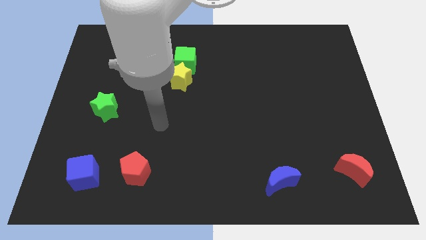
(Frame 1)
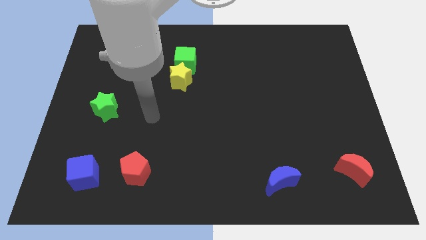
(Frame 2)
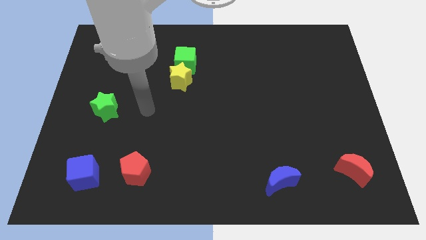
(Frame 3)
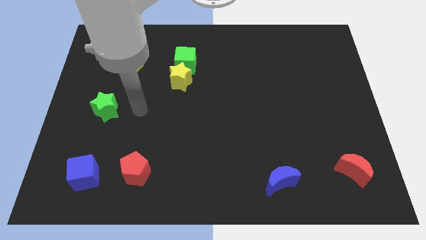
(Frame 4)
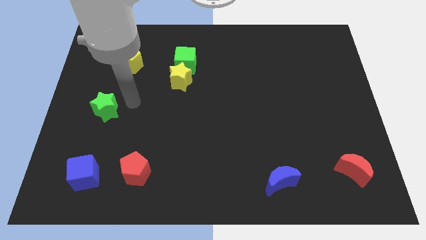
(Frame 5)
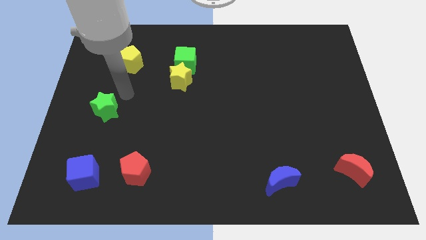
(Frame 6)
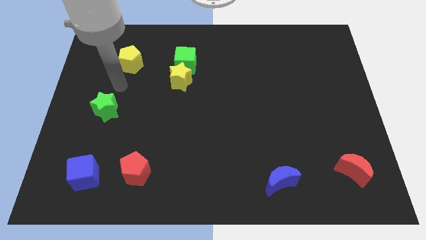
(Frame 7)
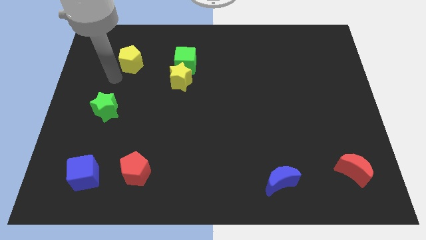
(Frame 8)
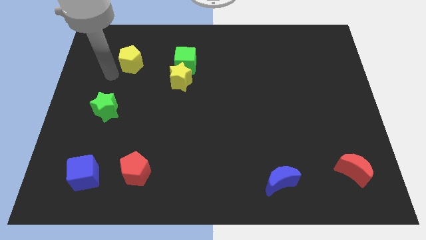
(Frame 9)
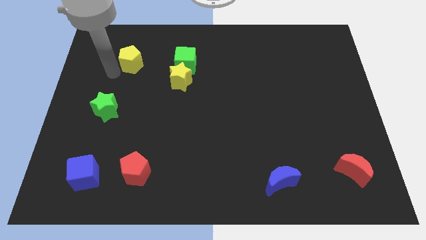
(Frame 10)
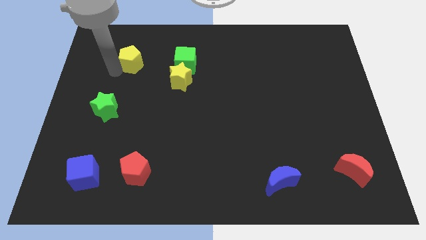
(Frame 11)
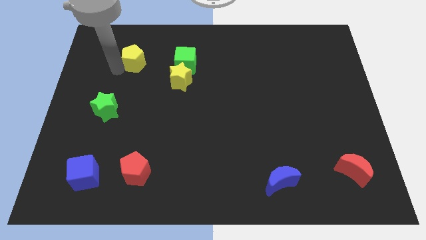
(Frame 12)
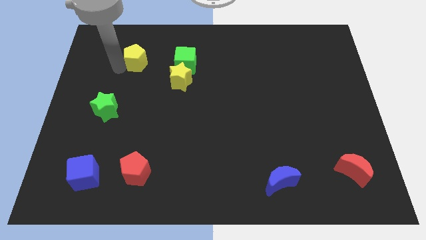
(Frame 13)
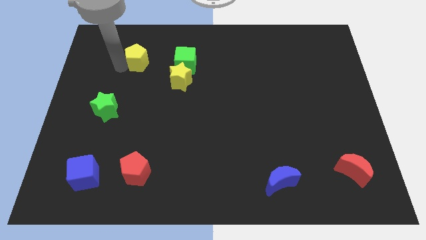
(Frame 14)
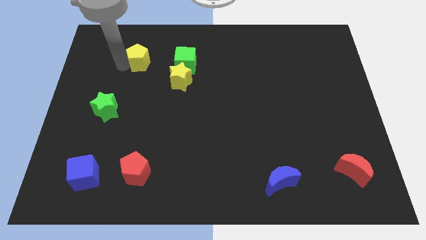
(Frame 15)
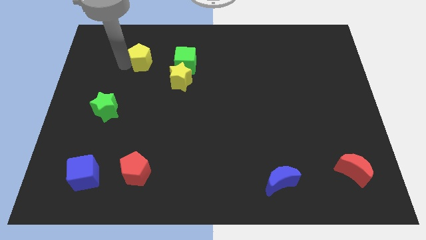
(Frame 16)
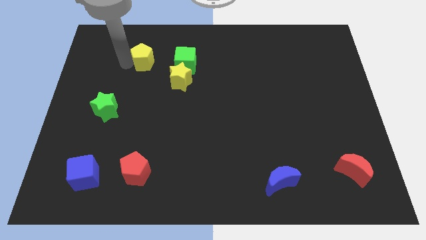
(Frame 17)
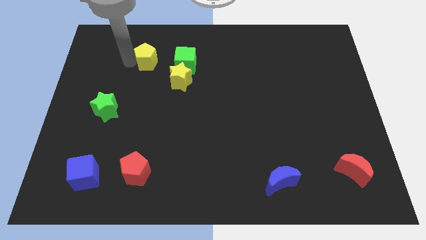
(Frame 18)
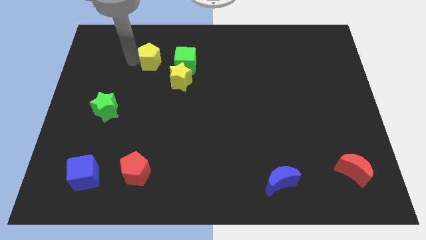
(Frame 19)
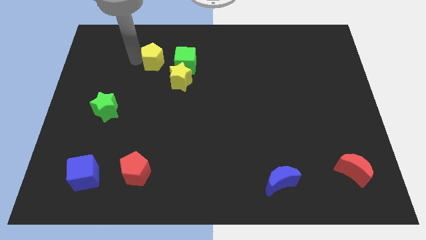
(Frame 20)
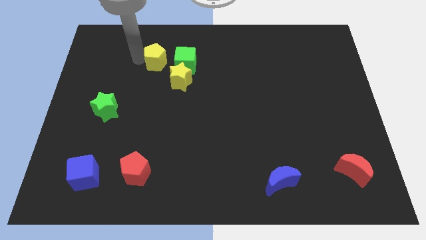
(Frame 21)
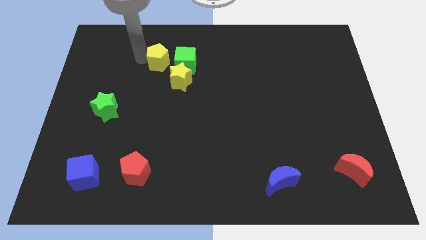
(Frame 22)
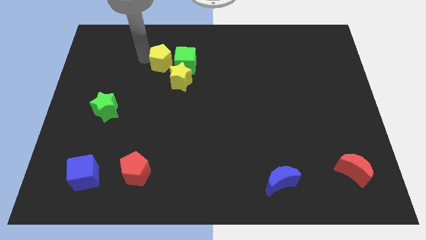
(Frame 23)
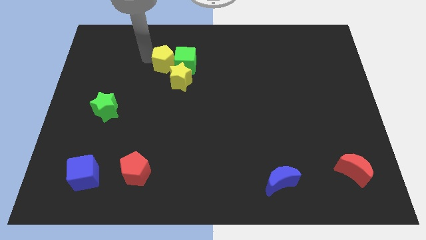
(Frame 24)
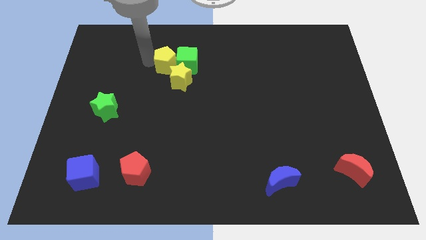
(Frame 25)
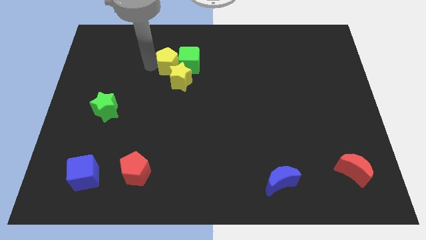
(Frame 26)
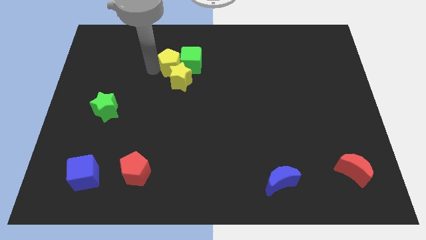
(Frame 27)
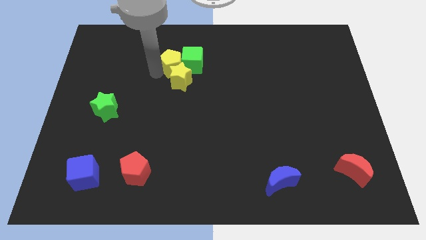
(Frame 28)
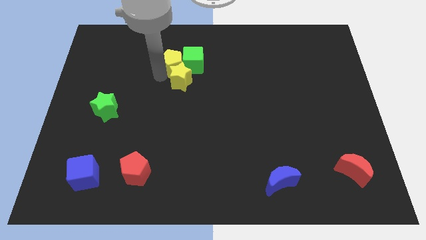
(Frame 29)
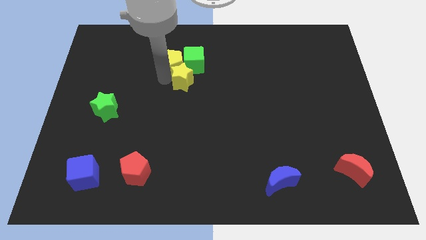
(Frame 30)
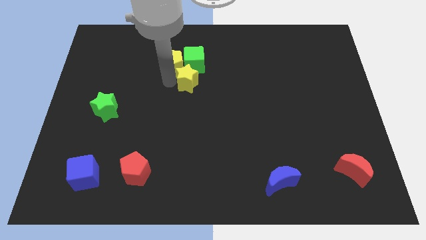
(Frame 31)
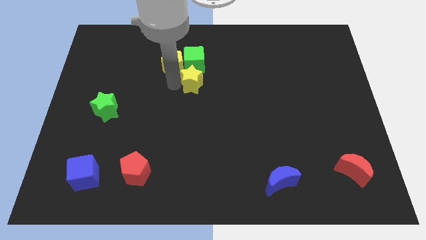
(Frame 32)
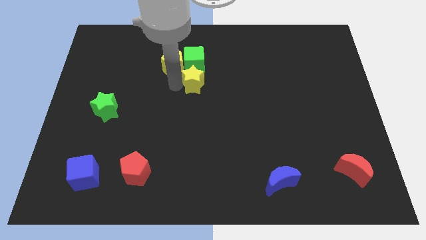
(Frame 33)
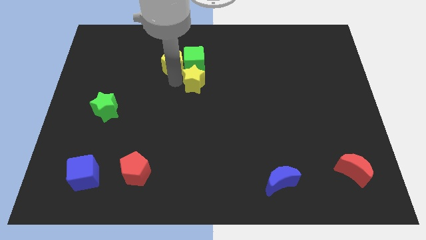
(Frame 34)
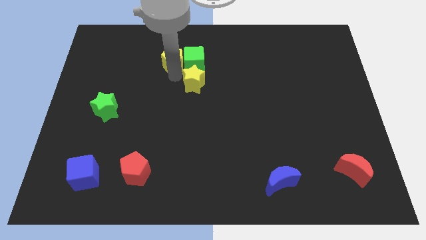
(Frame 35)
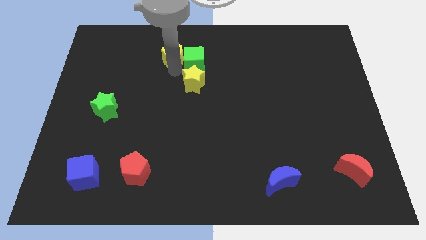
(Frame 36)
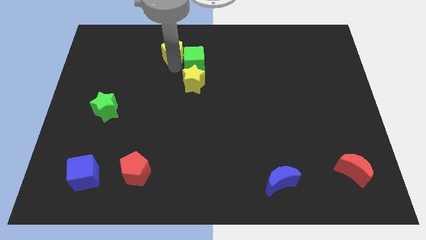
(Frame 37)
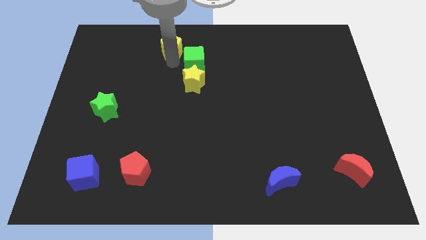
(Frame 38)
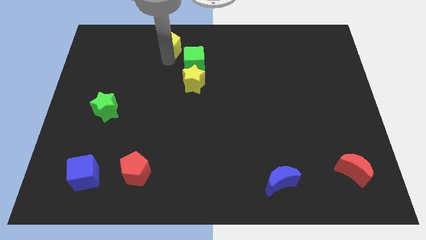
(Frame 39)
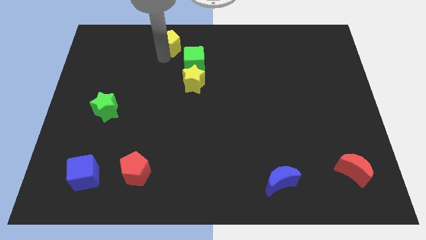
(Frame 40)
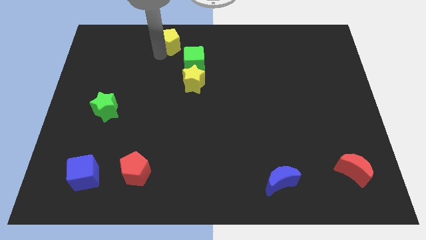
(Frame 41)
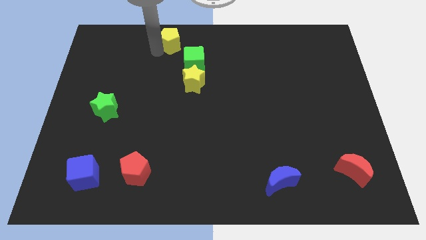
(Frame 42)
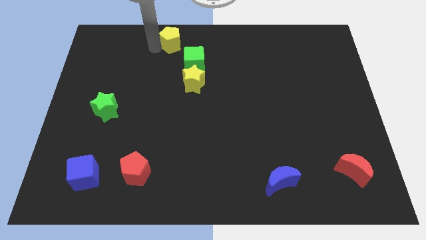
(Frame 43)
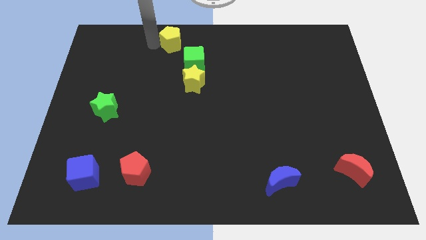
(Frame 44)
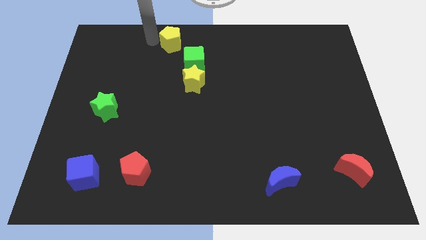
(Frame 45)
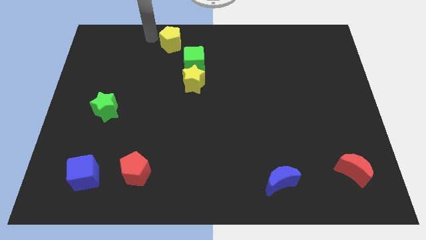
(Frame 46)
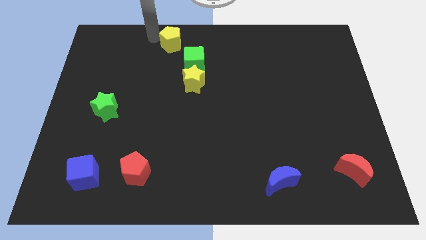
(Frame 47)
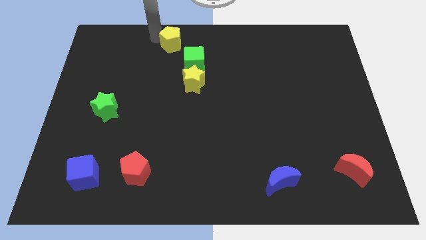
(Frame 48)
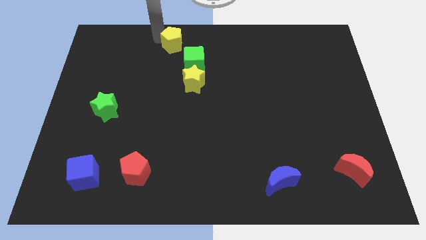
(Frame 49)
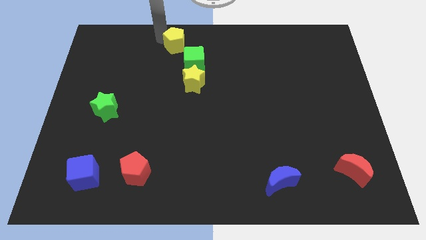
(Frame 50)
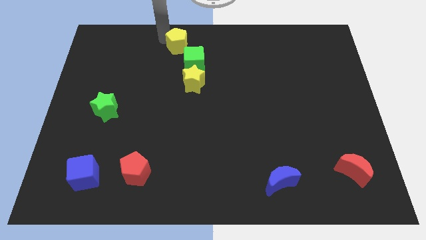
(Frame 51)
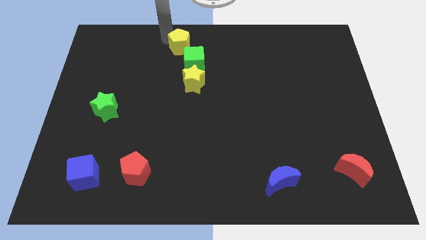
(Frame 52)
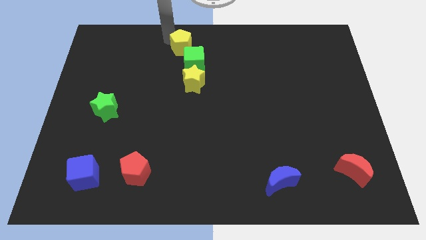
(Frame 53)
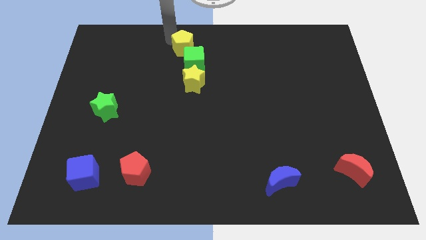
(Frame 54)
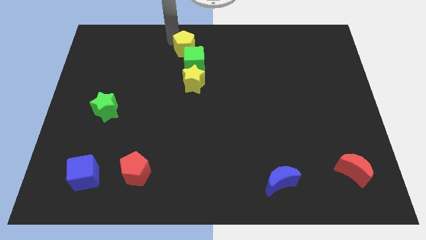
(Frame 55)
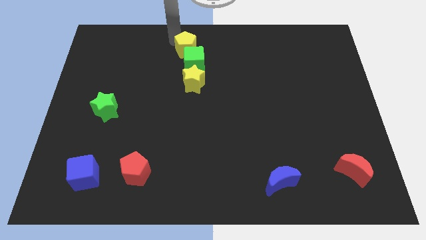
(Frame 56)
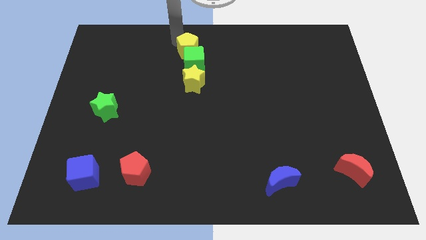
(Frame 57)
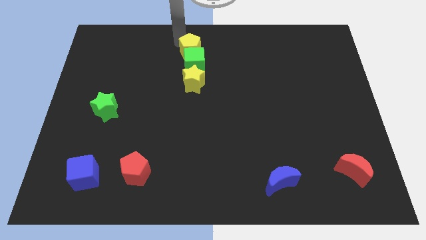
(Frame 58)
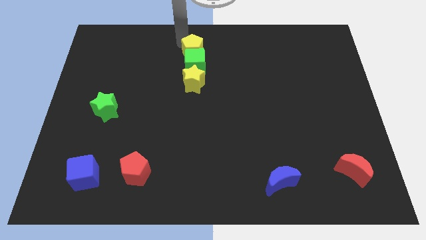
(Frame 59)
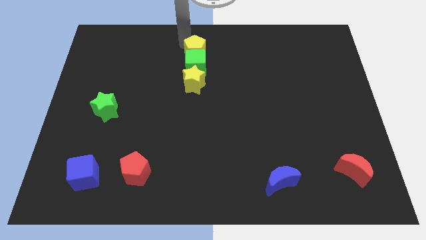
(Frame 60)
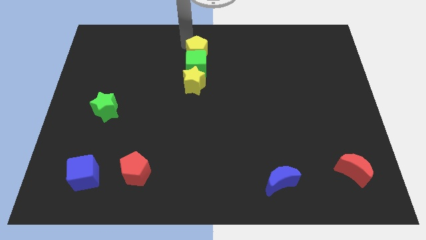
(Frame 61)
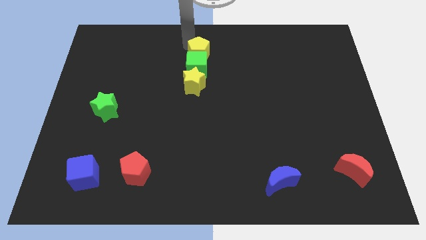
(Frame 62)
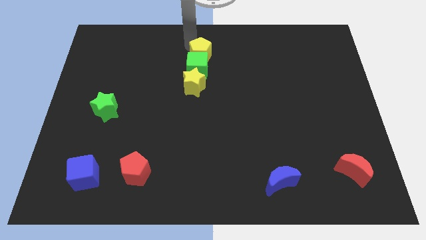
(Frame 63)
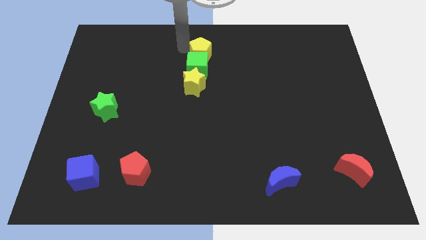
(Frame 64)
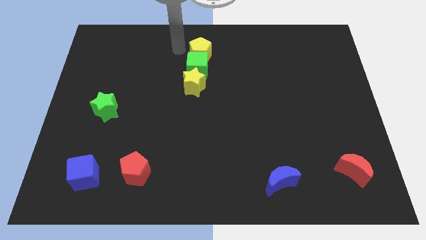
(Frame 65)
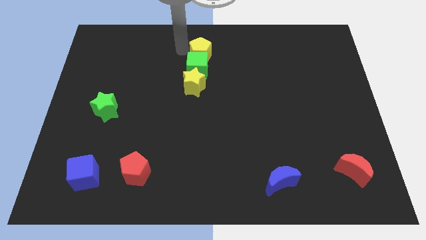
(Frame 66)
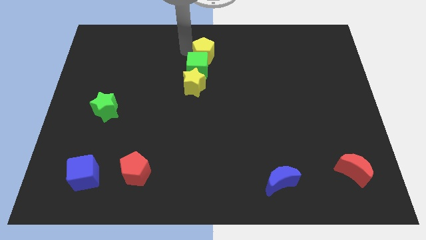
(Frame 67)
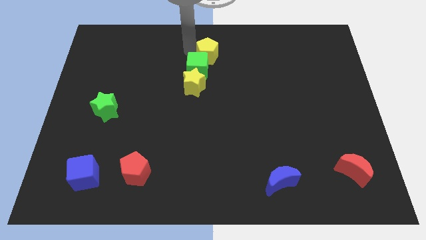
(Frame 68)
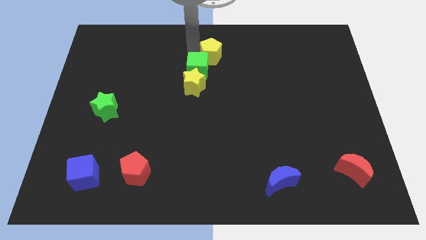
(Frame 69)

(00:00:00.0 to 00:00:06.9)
push the yellow pentagon to the right

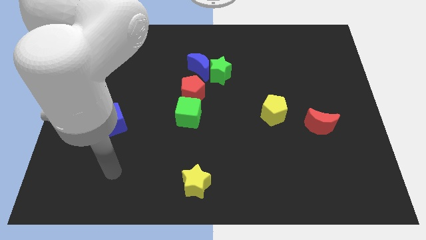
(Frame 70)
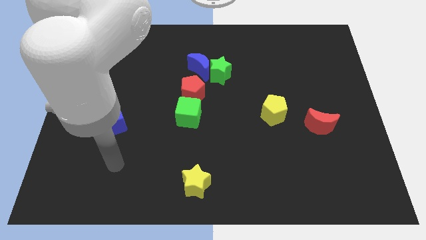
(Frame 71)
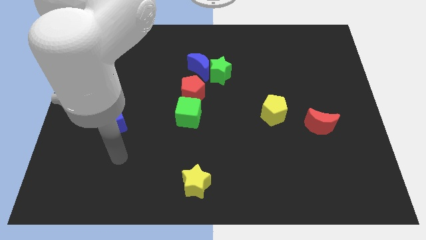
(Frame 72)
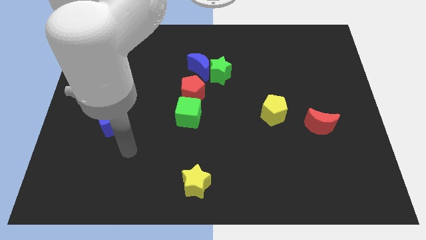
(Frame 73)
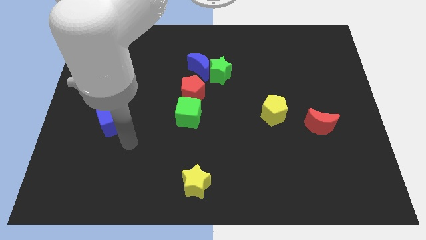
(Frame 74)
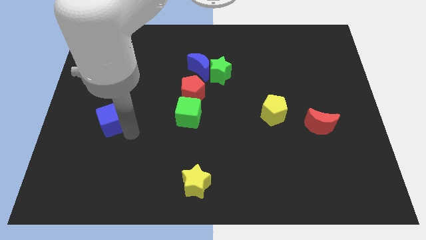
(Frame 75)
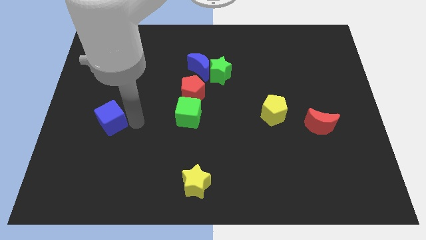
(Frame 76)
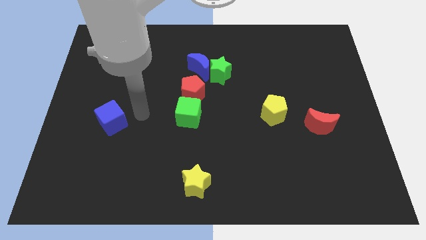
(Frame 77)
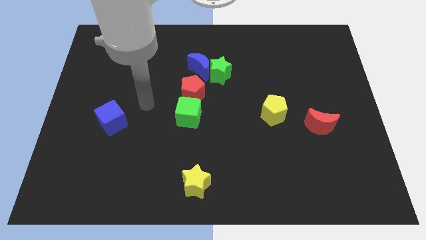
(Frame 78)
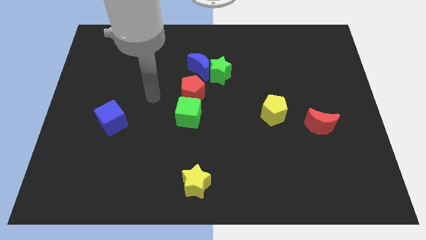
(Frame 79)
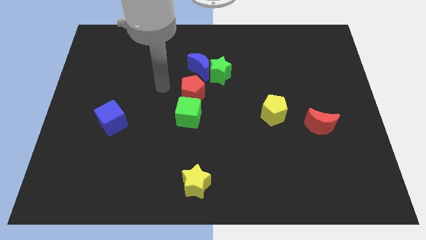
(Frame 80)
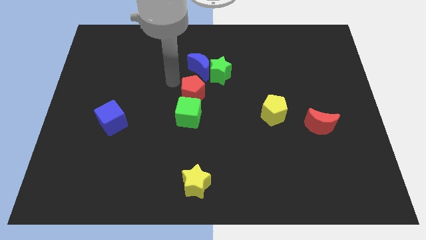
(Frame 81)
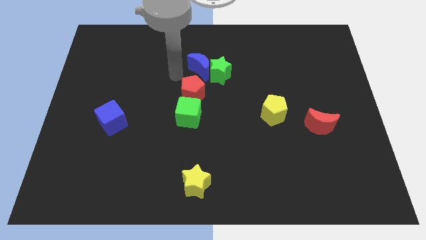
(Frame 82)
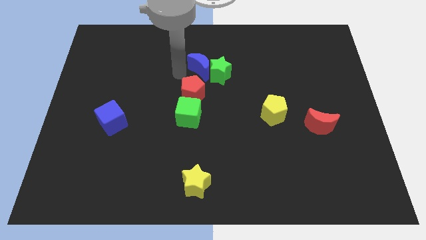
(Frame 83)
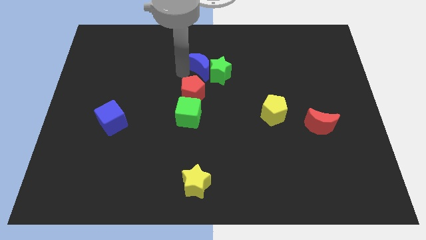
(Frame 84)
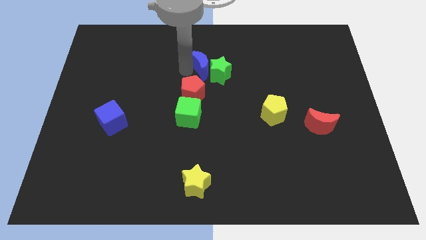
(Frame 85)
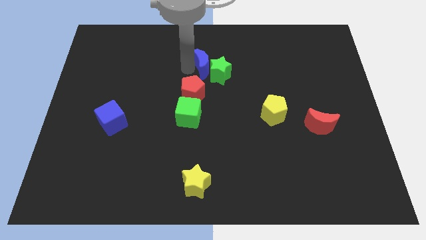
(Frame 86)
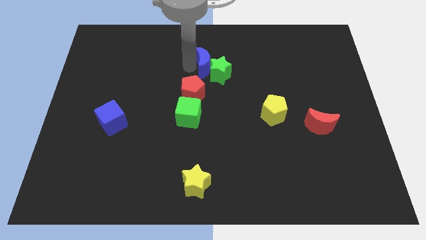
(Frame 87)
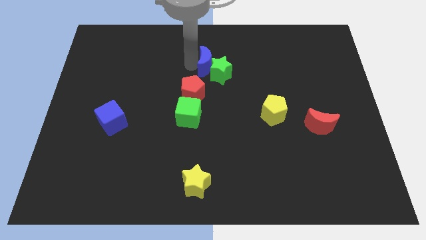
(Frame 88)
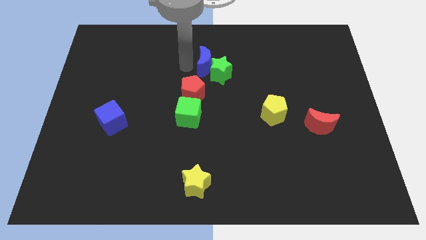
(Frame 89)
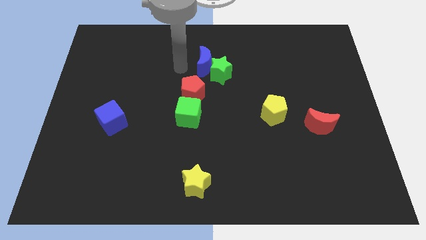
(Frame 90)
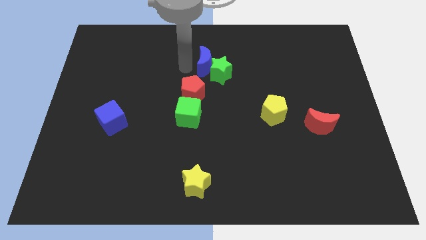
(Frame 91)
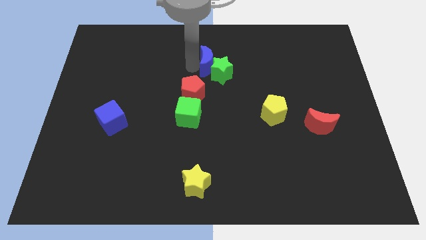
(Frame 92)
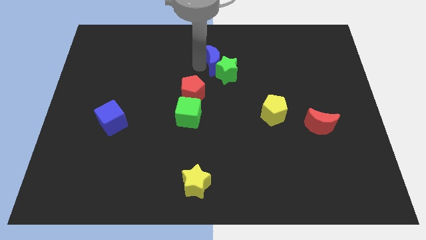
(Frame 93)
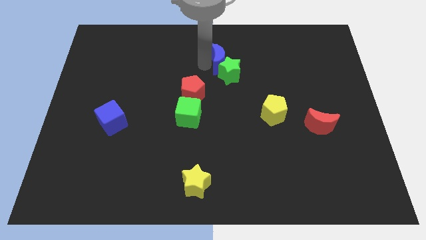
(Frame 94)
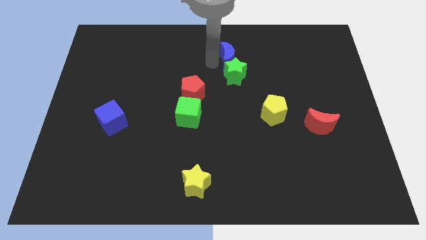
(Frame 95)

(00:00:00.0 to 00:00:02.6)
move the blue moon a bit right
